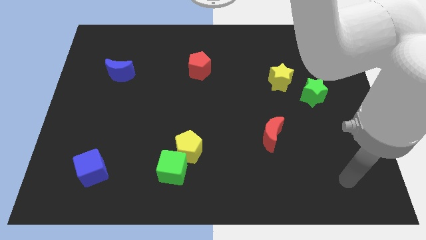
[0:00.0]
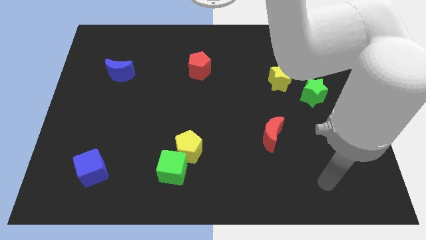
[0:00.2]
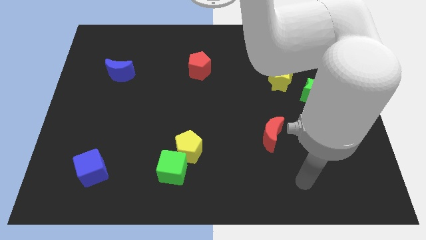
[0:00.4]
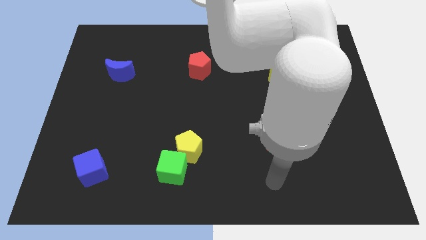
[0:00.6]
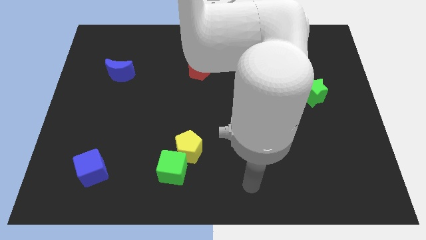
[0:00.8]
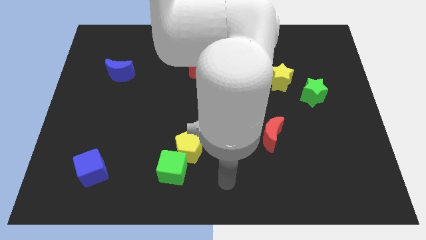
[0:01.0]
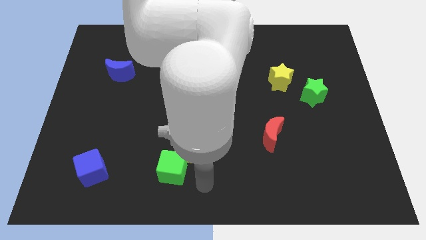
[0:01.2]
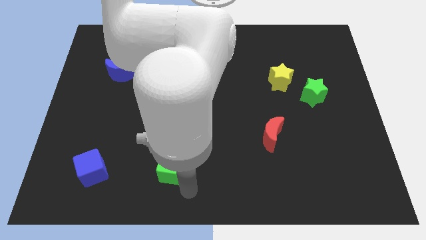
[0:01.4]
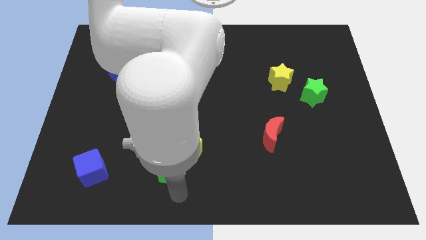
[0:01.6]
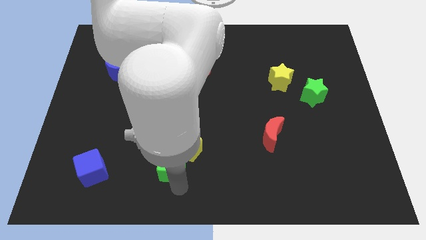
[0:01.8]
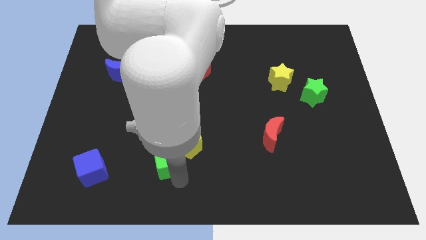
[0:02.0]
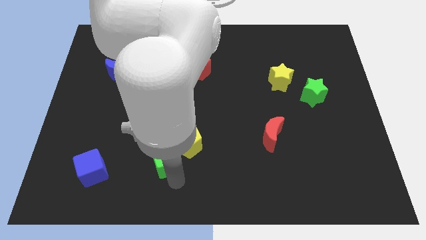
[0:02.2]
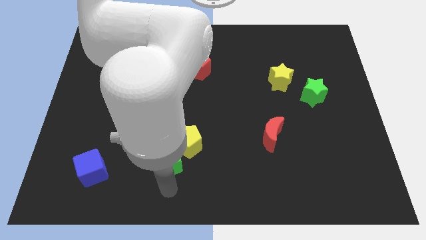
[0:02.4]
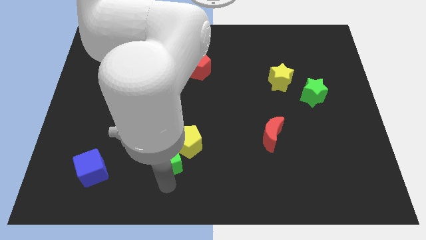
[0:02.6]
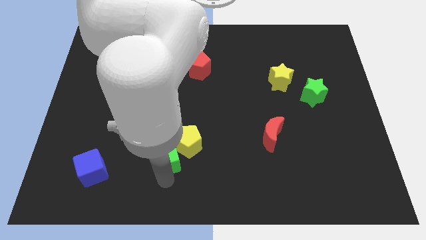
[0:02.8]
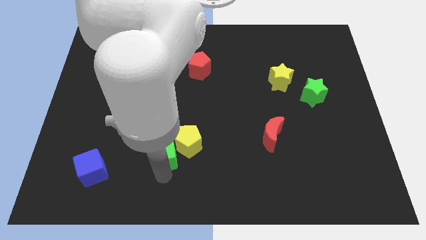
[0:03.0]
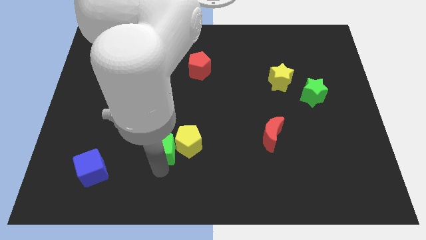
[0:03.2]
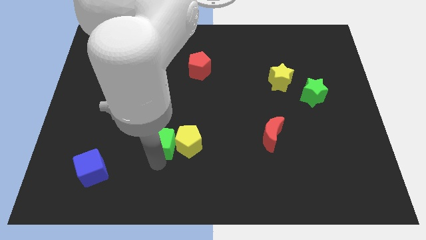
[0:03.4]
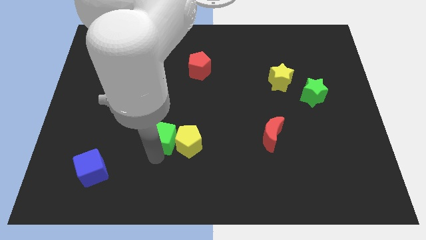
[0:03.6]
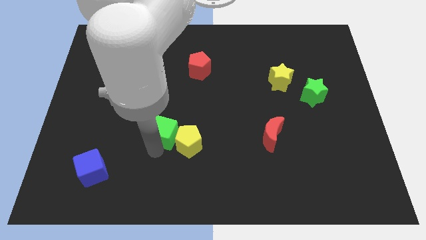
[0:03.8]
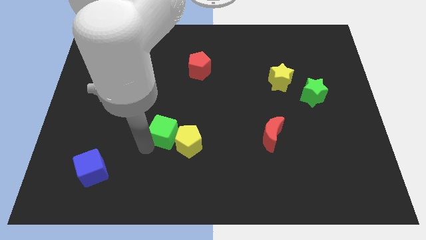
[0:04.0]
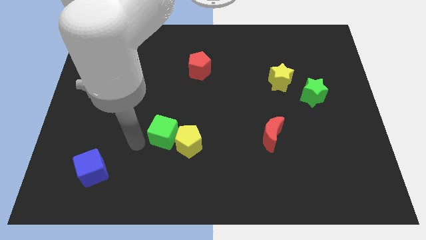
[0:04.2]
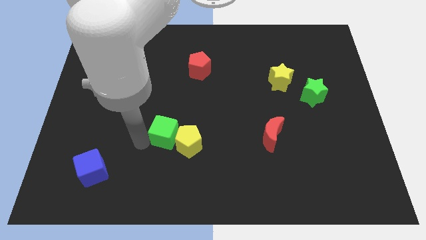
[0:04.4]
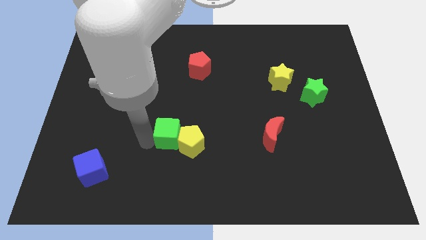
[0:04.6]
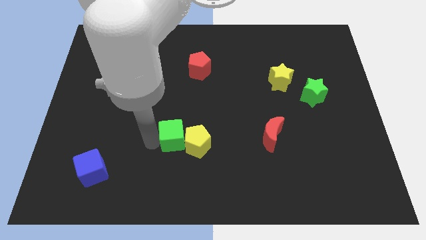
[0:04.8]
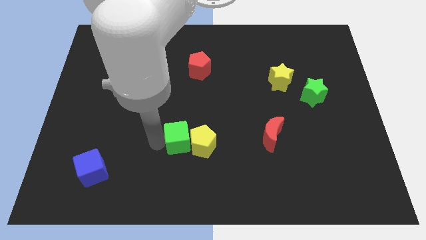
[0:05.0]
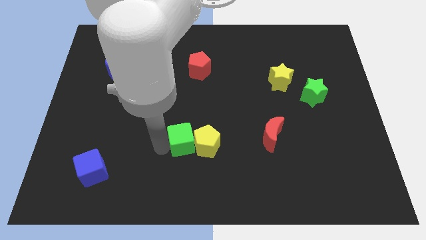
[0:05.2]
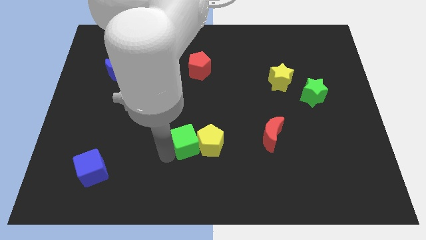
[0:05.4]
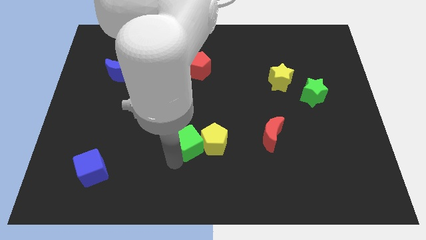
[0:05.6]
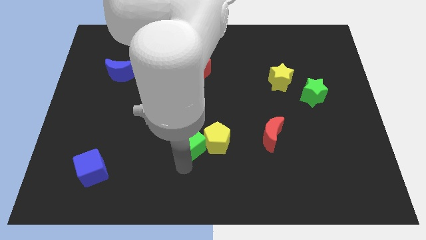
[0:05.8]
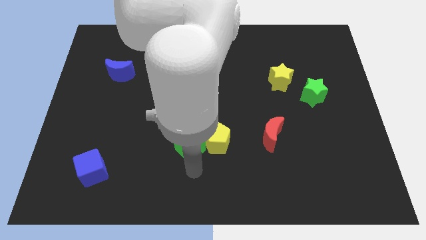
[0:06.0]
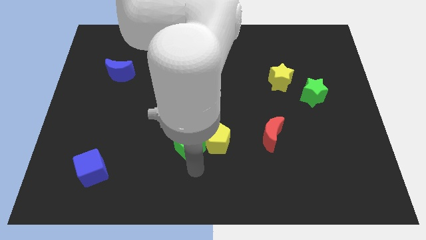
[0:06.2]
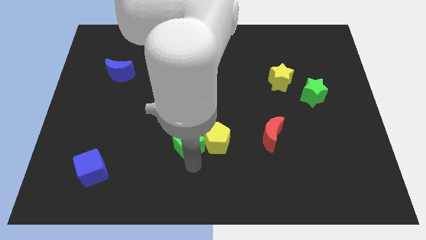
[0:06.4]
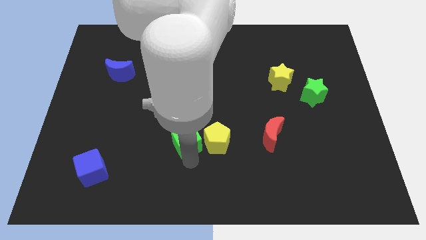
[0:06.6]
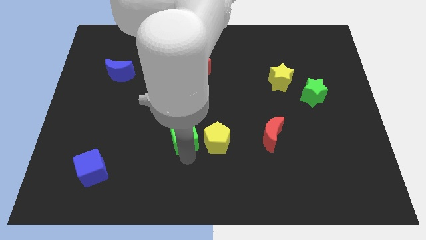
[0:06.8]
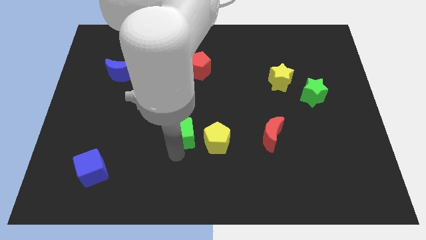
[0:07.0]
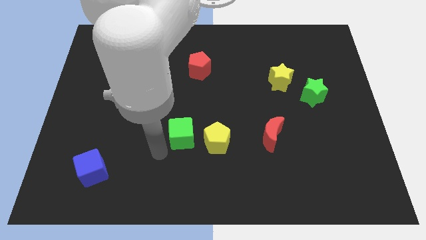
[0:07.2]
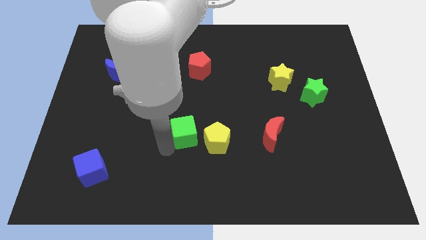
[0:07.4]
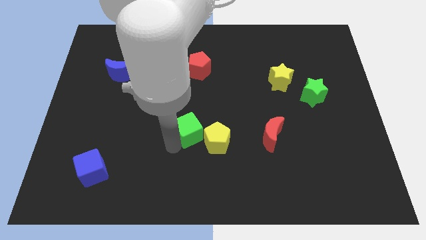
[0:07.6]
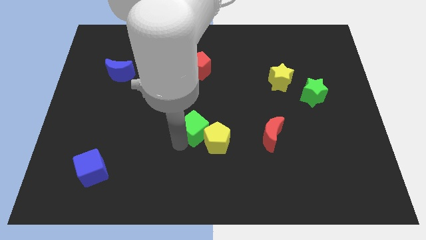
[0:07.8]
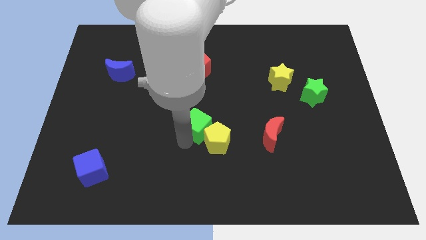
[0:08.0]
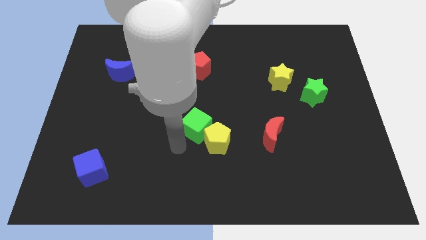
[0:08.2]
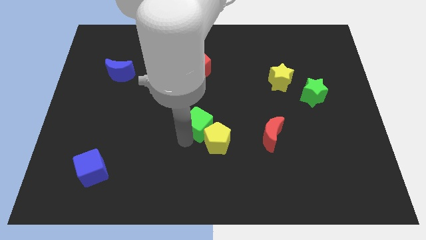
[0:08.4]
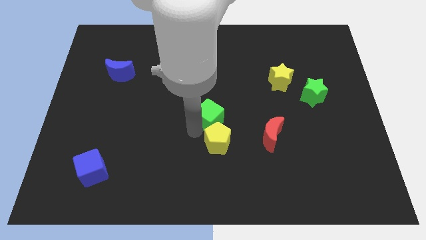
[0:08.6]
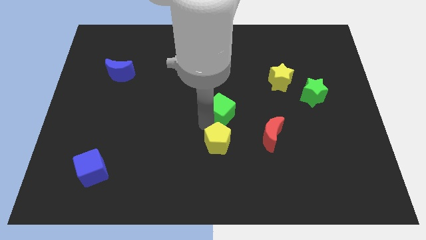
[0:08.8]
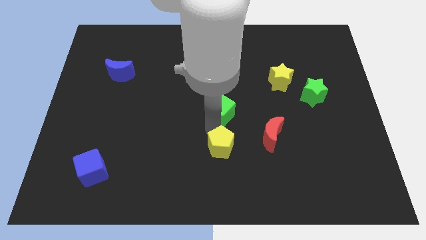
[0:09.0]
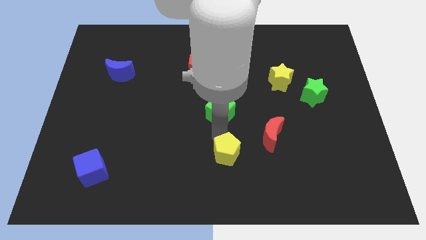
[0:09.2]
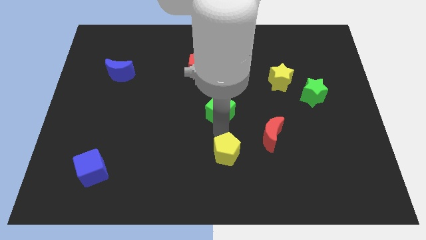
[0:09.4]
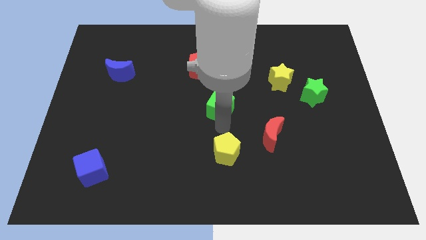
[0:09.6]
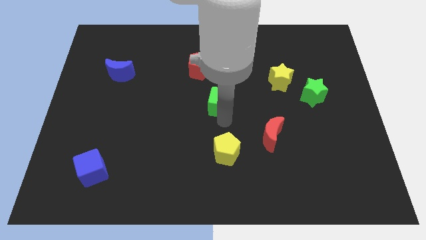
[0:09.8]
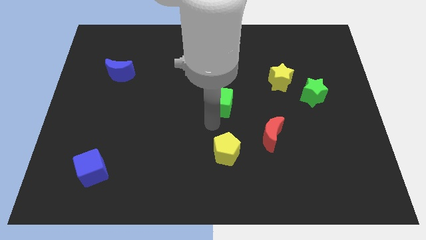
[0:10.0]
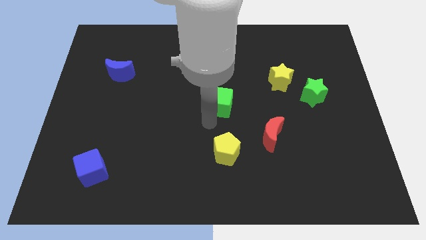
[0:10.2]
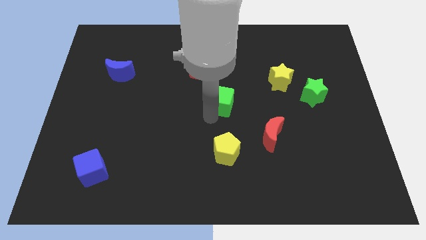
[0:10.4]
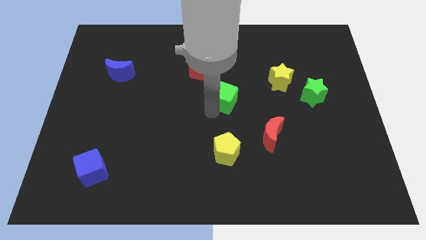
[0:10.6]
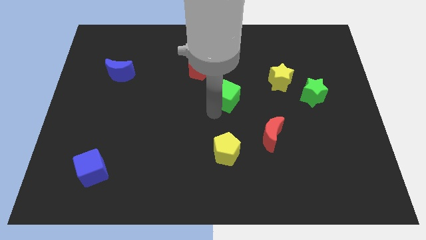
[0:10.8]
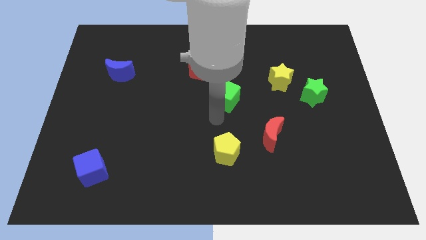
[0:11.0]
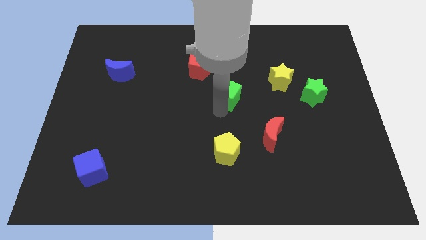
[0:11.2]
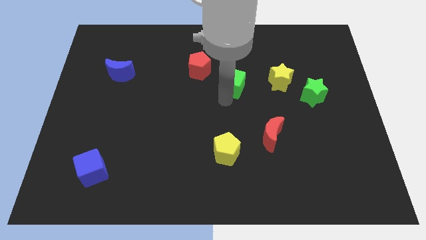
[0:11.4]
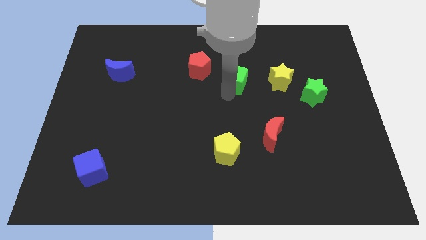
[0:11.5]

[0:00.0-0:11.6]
move the green cube to the right of the red pentagon

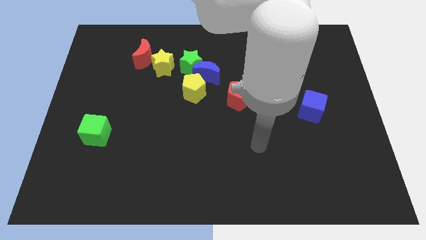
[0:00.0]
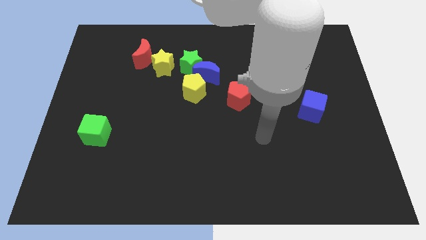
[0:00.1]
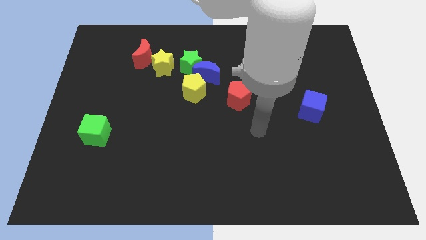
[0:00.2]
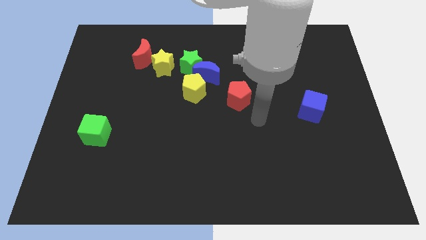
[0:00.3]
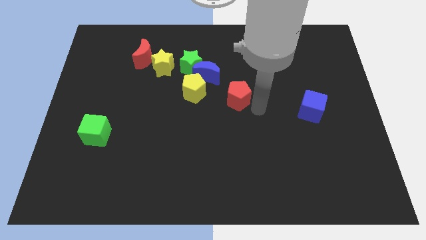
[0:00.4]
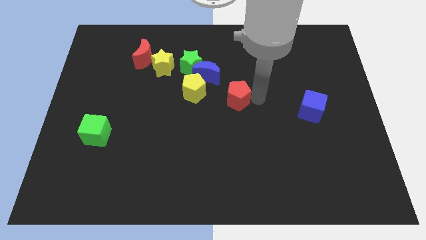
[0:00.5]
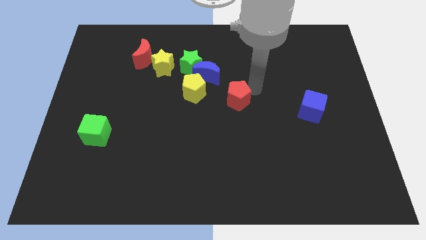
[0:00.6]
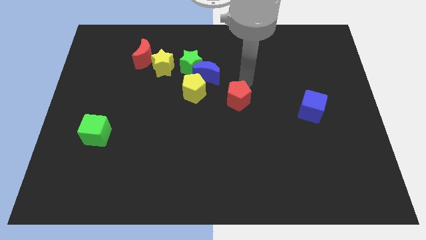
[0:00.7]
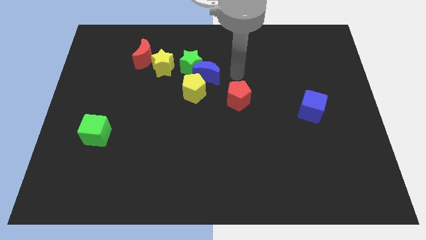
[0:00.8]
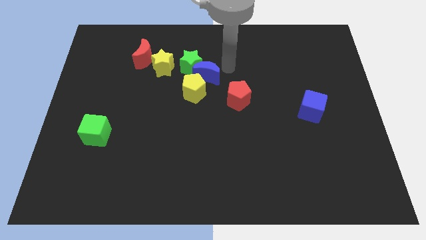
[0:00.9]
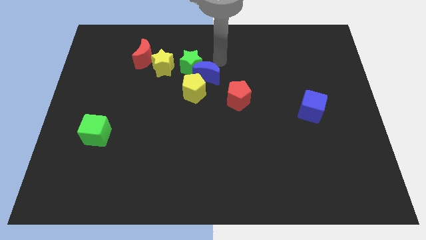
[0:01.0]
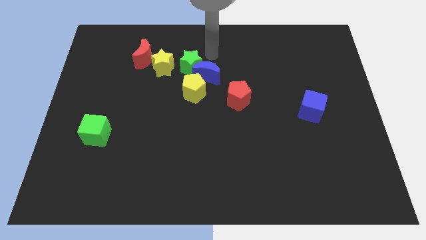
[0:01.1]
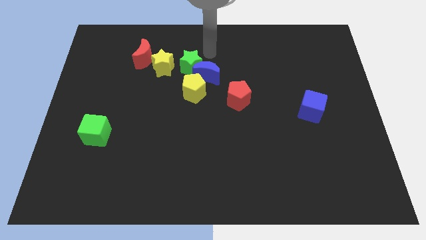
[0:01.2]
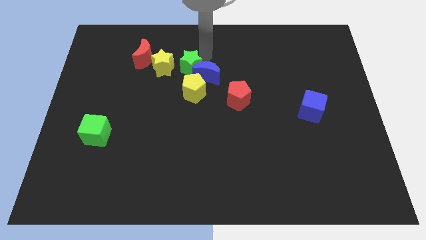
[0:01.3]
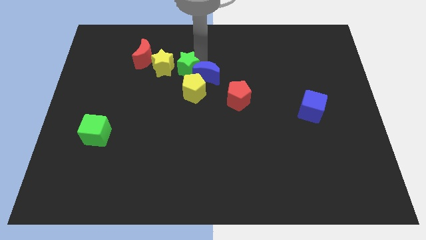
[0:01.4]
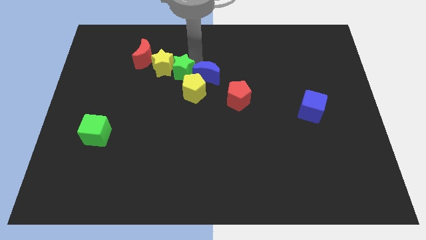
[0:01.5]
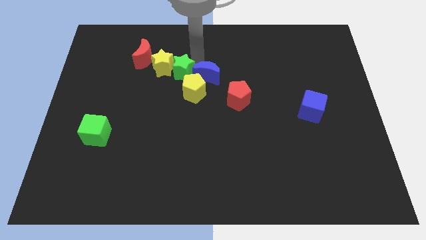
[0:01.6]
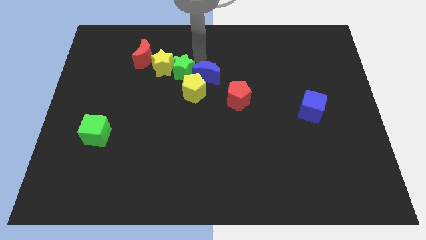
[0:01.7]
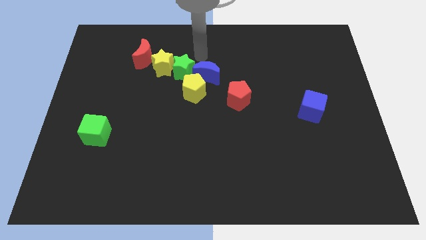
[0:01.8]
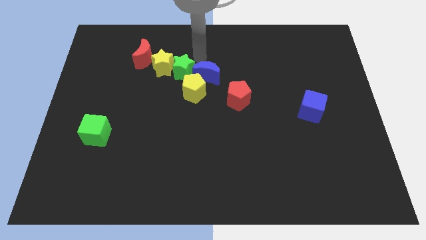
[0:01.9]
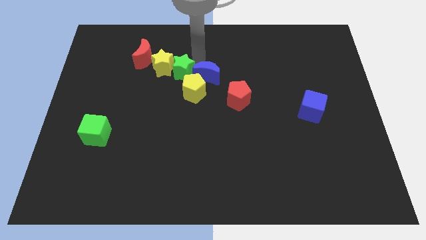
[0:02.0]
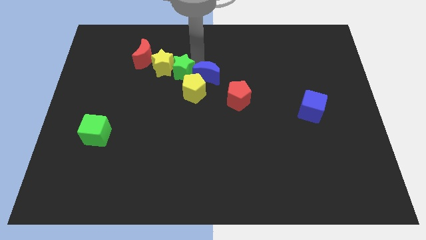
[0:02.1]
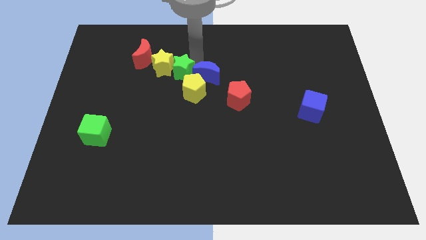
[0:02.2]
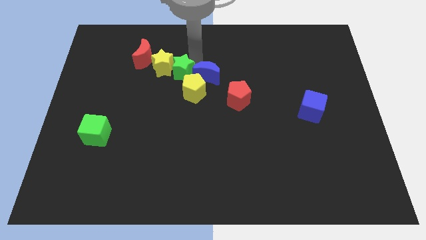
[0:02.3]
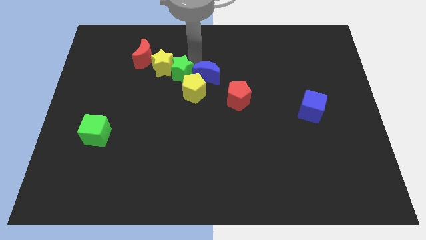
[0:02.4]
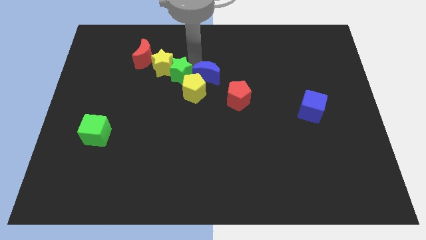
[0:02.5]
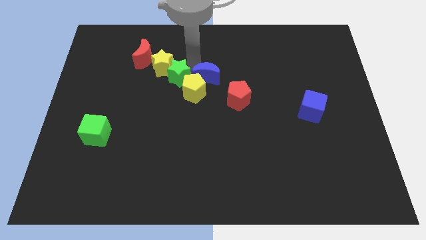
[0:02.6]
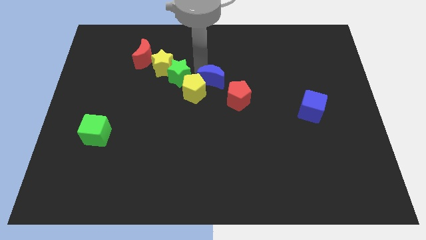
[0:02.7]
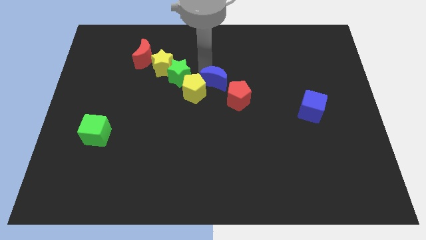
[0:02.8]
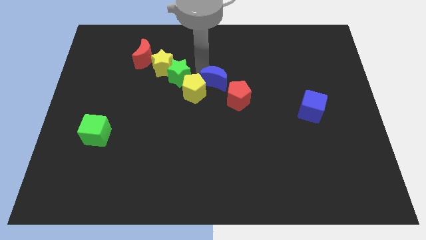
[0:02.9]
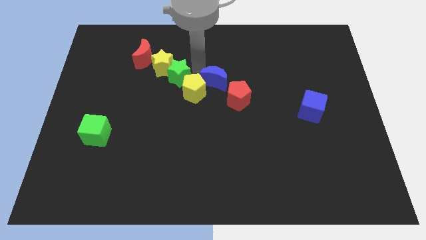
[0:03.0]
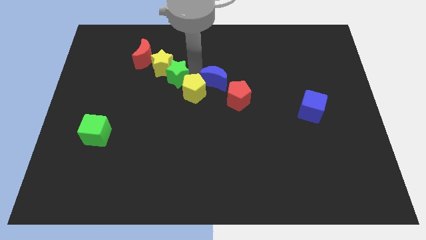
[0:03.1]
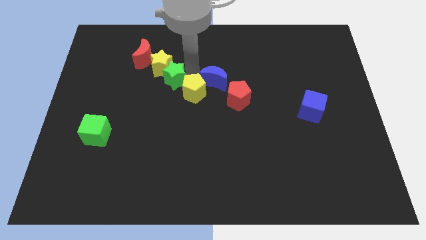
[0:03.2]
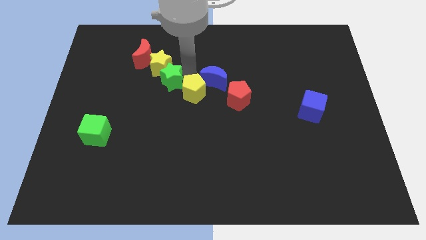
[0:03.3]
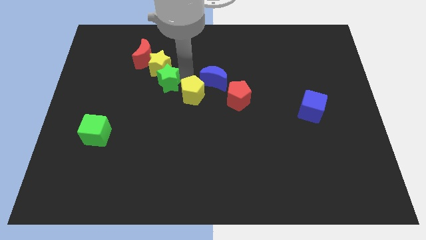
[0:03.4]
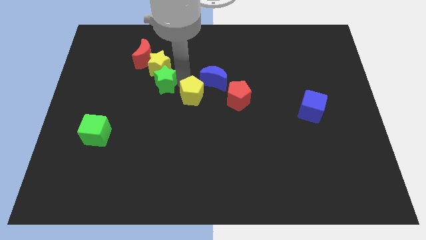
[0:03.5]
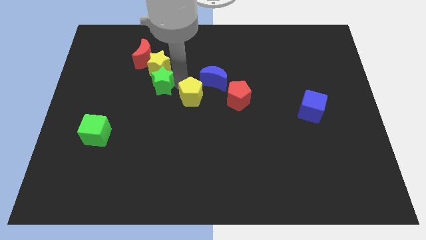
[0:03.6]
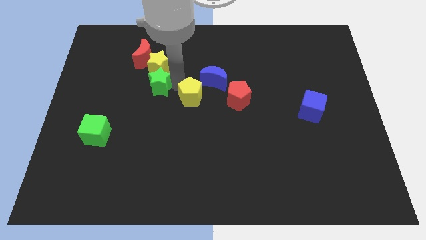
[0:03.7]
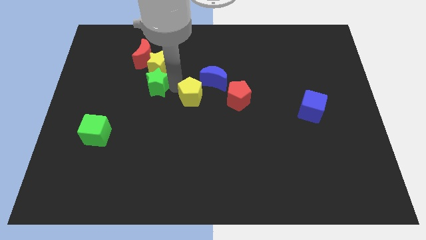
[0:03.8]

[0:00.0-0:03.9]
push the green star diagonally down and to the left of the yellow star
